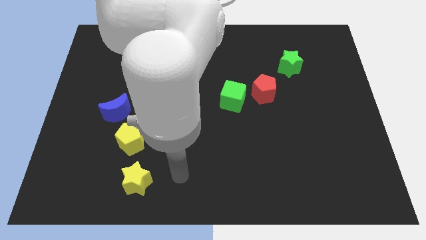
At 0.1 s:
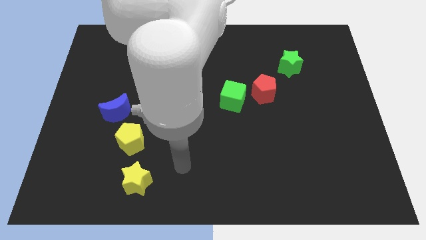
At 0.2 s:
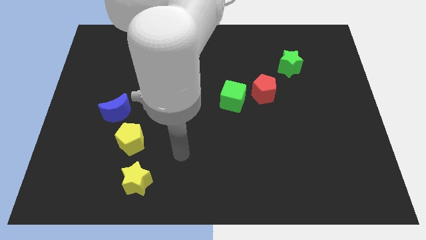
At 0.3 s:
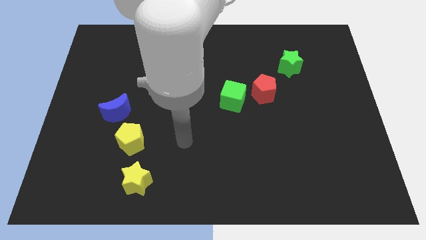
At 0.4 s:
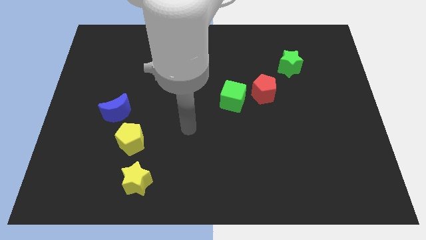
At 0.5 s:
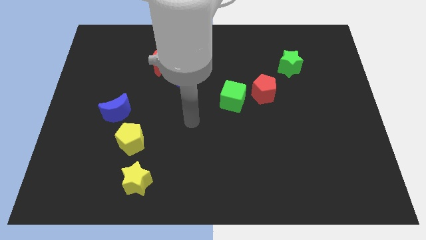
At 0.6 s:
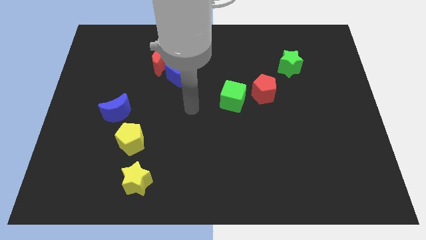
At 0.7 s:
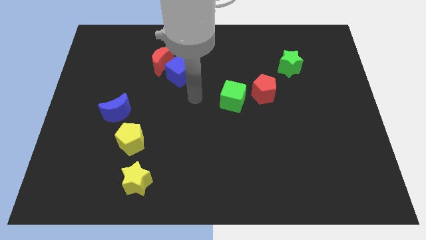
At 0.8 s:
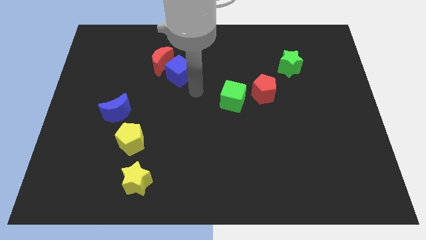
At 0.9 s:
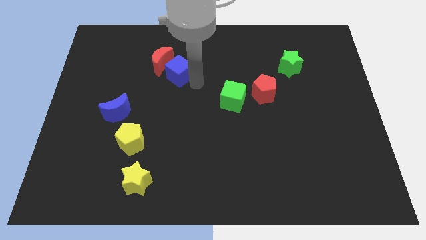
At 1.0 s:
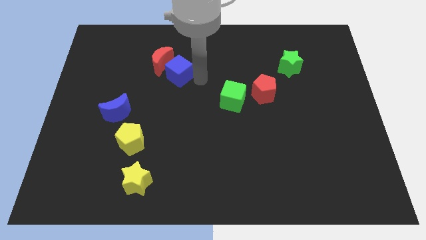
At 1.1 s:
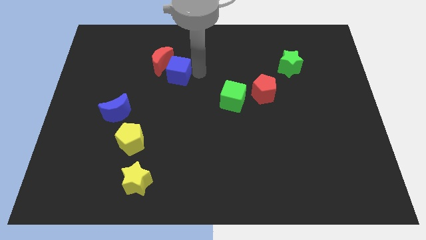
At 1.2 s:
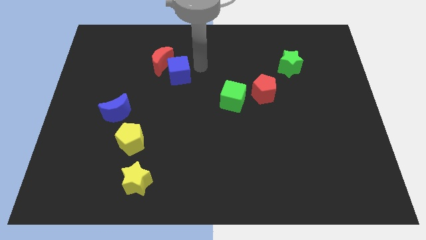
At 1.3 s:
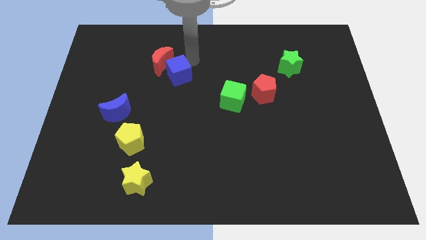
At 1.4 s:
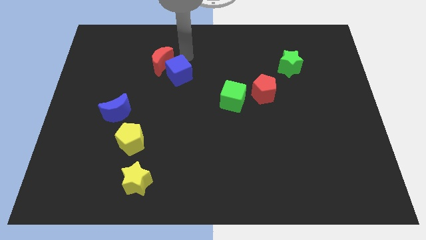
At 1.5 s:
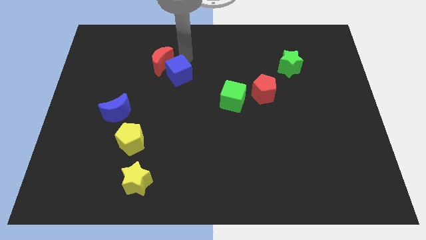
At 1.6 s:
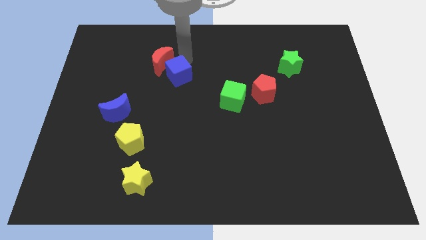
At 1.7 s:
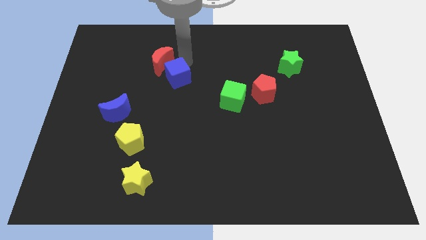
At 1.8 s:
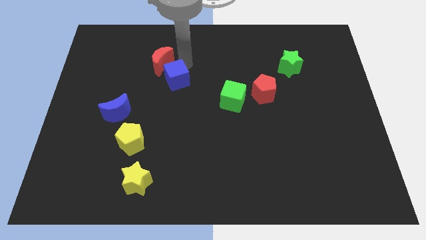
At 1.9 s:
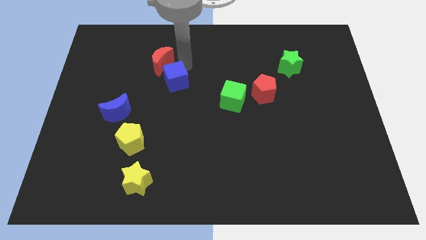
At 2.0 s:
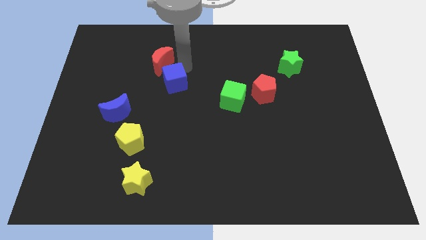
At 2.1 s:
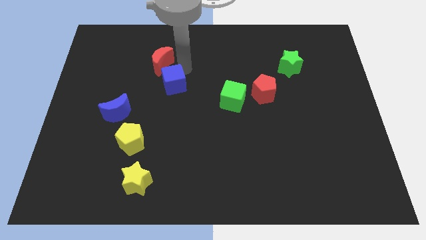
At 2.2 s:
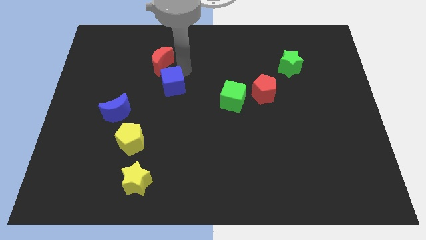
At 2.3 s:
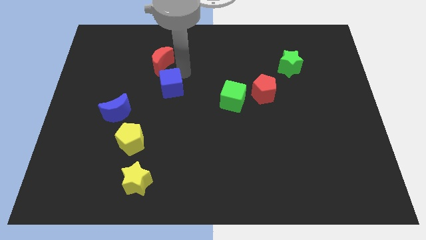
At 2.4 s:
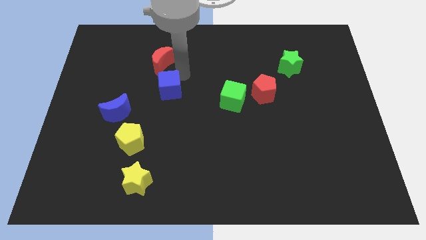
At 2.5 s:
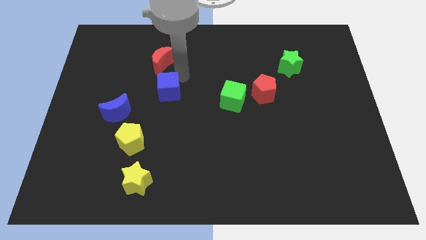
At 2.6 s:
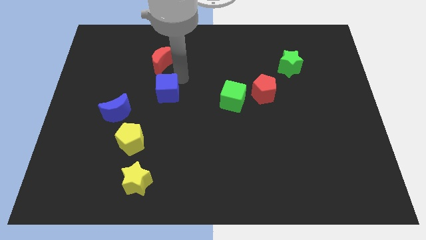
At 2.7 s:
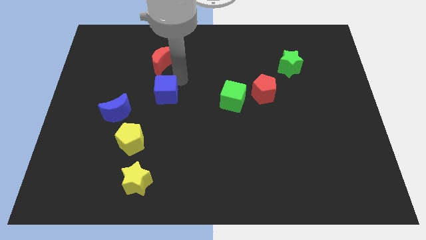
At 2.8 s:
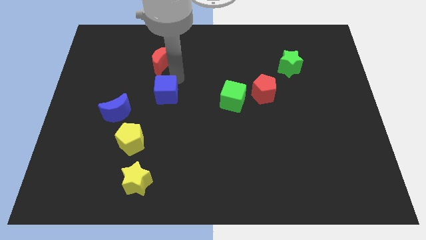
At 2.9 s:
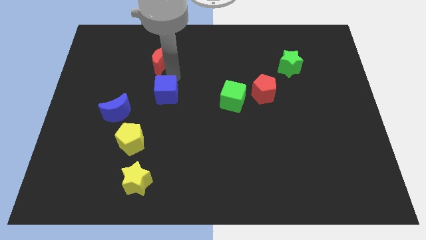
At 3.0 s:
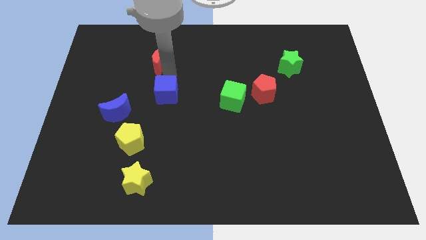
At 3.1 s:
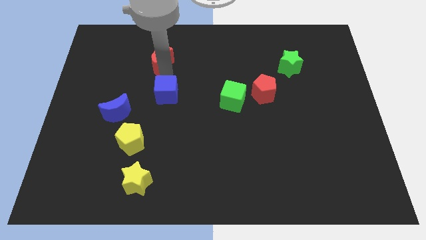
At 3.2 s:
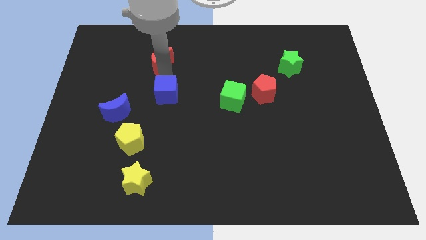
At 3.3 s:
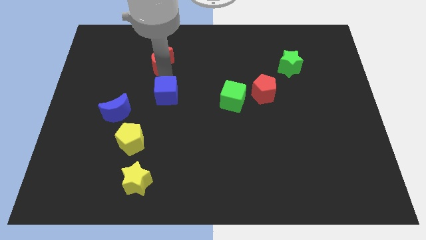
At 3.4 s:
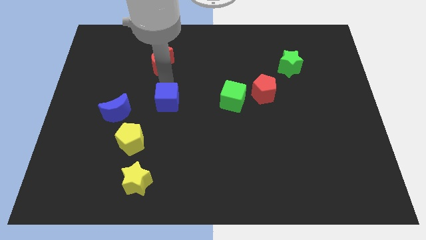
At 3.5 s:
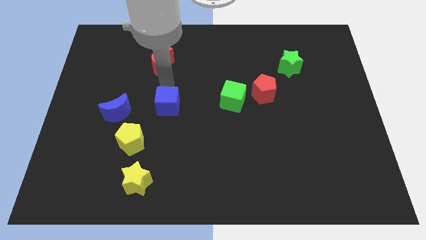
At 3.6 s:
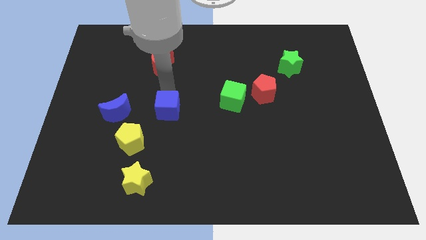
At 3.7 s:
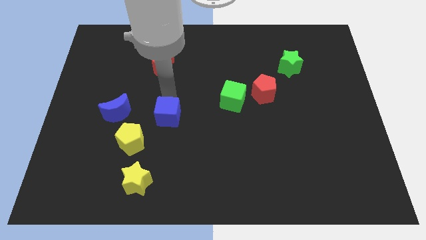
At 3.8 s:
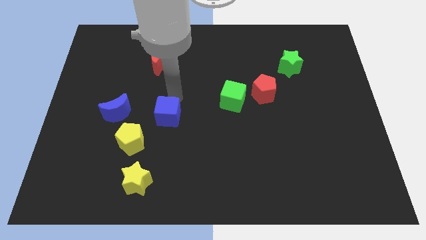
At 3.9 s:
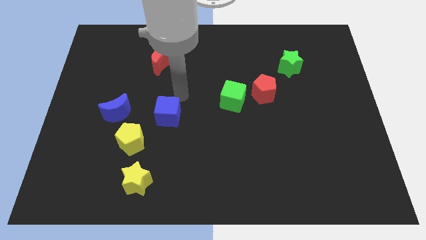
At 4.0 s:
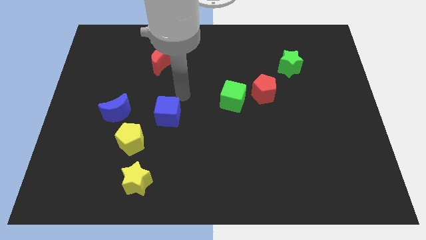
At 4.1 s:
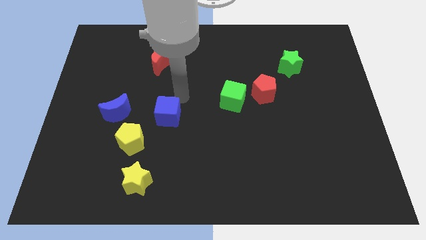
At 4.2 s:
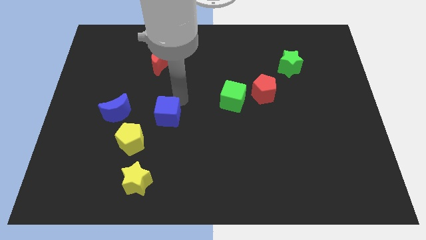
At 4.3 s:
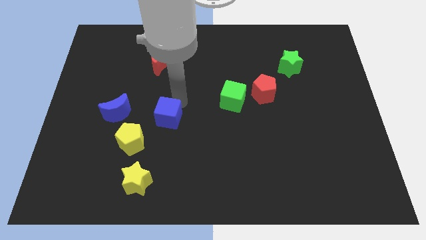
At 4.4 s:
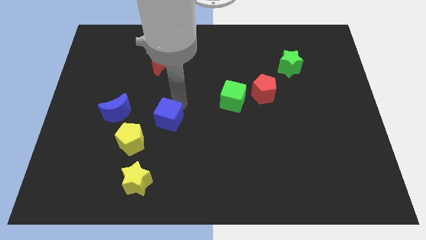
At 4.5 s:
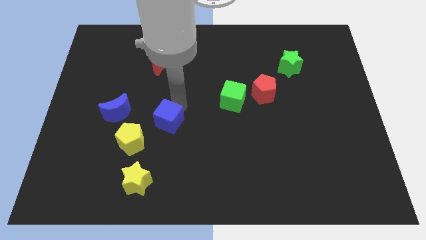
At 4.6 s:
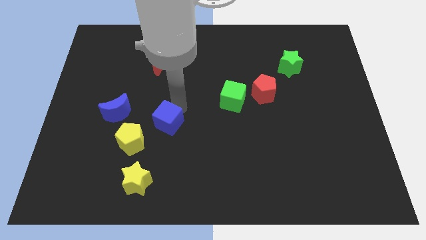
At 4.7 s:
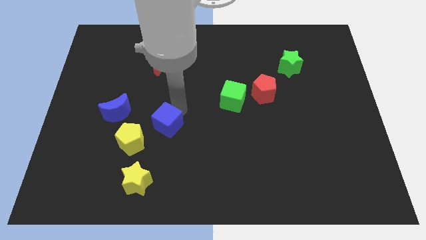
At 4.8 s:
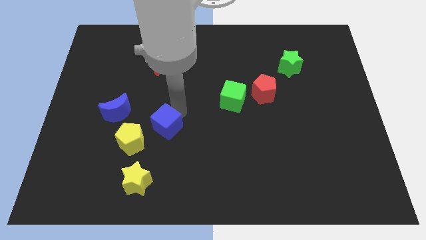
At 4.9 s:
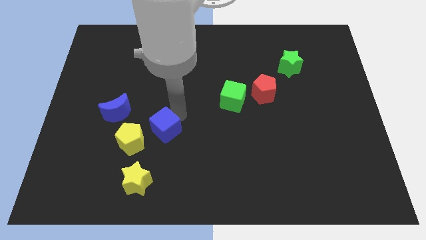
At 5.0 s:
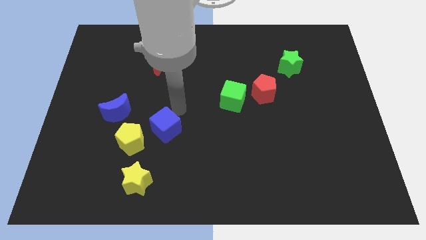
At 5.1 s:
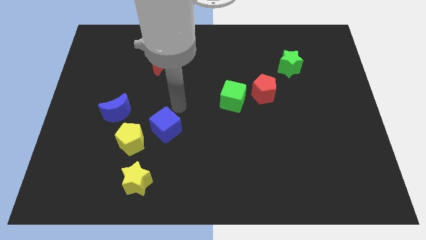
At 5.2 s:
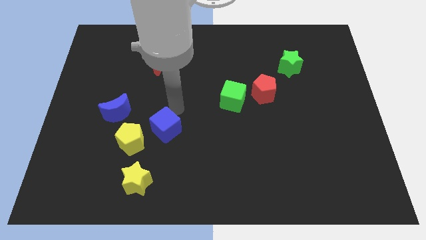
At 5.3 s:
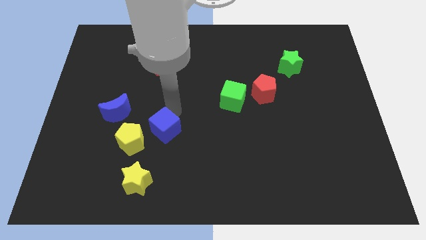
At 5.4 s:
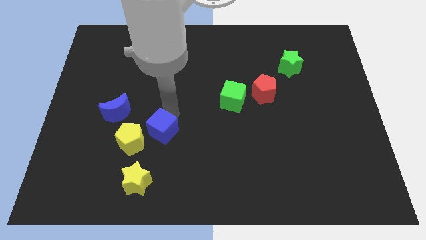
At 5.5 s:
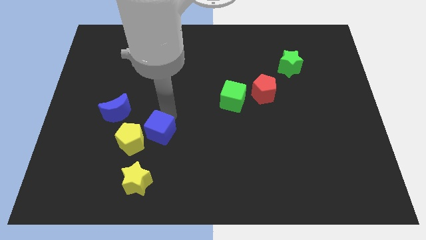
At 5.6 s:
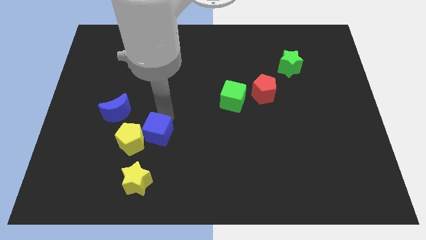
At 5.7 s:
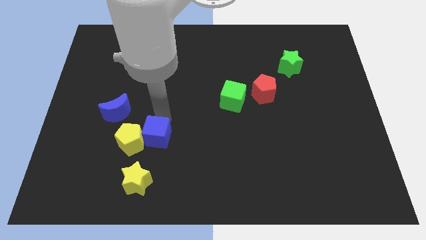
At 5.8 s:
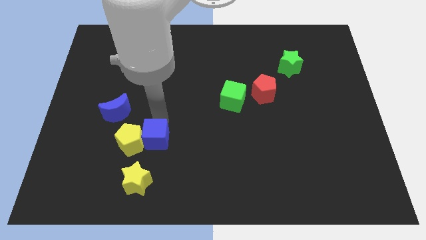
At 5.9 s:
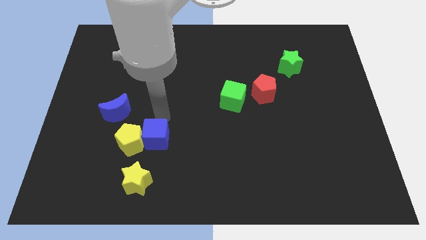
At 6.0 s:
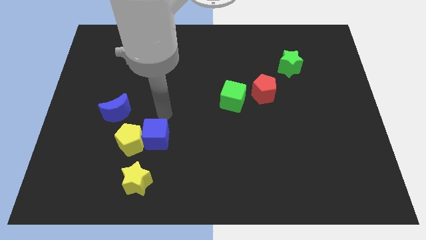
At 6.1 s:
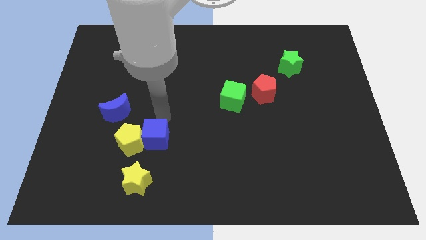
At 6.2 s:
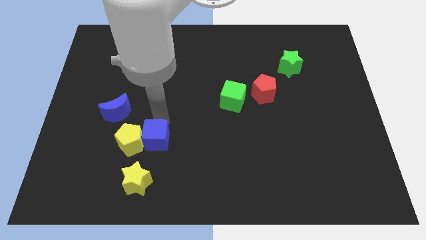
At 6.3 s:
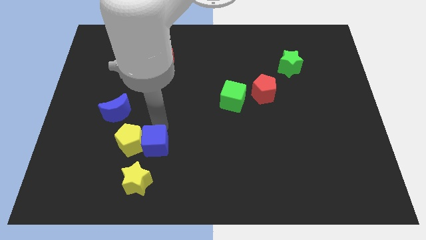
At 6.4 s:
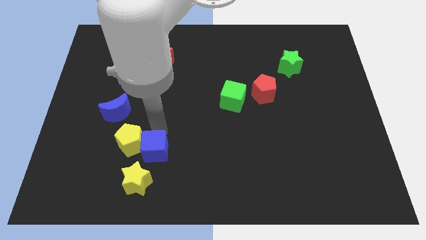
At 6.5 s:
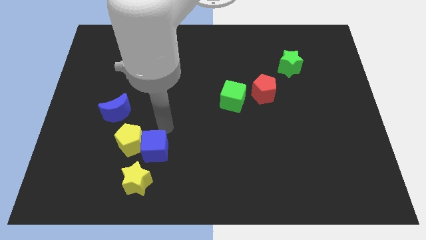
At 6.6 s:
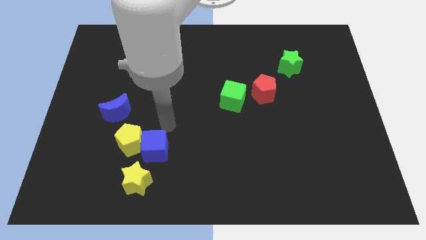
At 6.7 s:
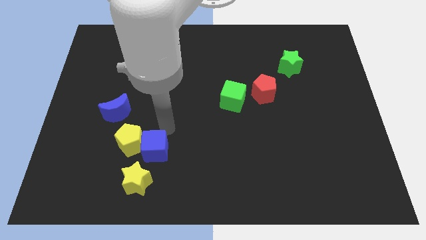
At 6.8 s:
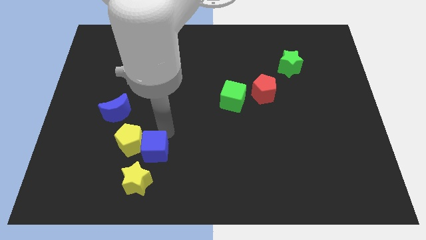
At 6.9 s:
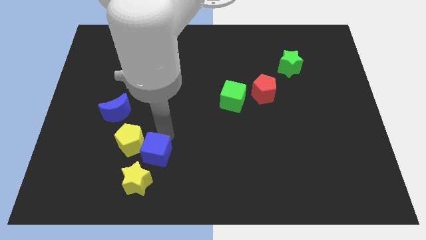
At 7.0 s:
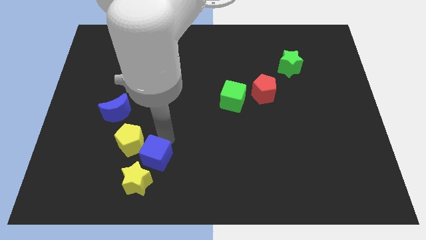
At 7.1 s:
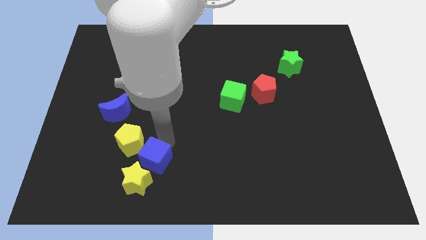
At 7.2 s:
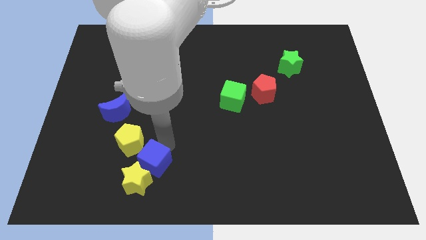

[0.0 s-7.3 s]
push the blue cube next to the yellow star

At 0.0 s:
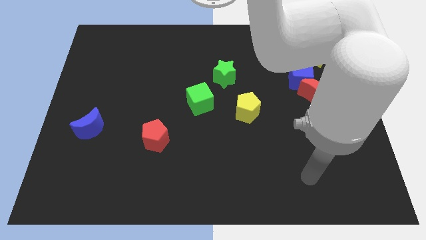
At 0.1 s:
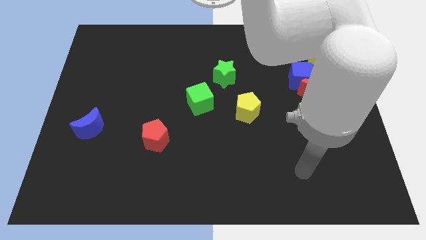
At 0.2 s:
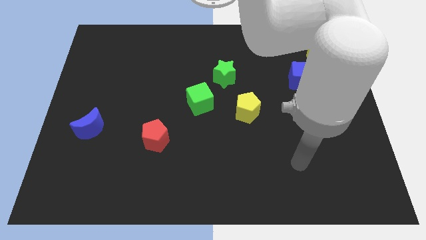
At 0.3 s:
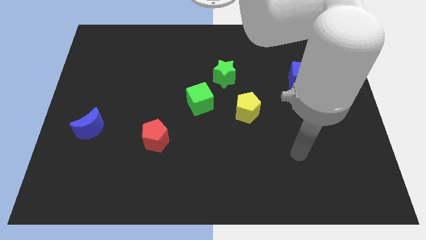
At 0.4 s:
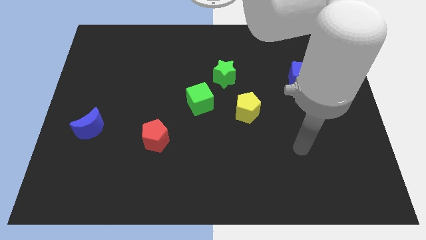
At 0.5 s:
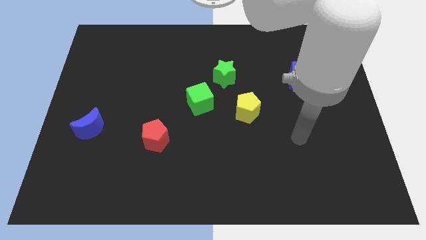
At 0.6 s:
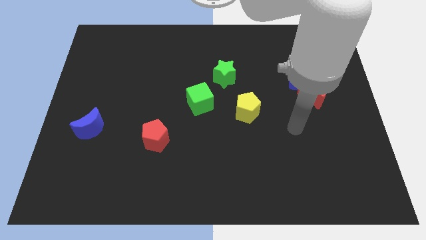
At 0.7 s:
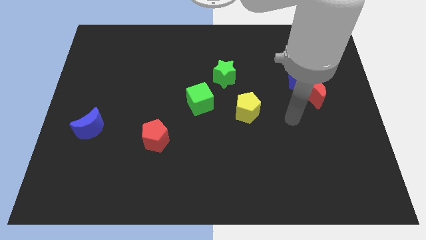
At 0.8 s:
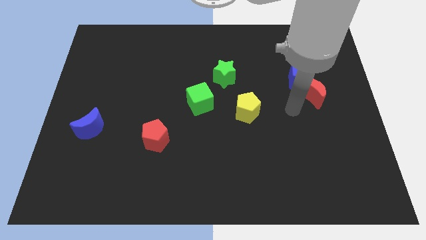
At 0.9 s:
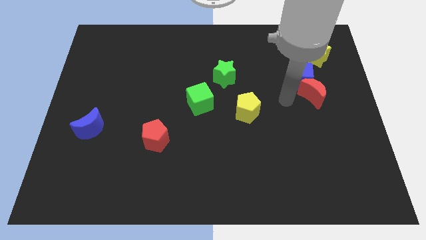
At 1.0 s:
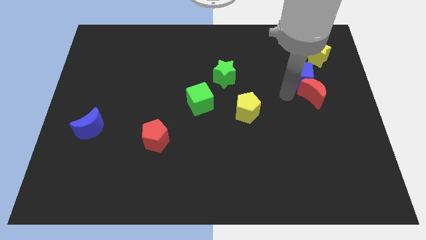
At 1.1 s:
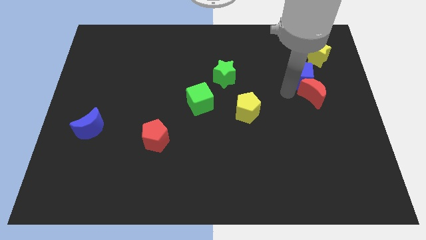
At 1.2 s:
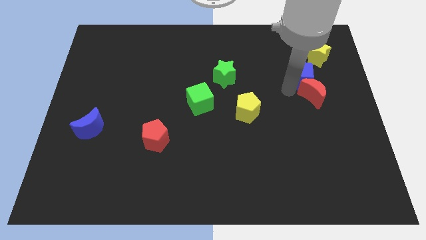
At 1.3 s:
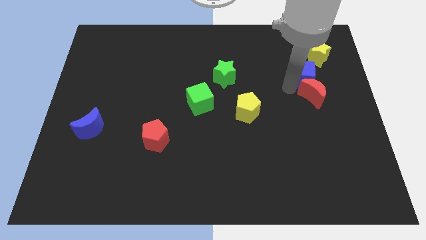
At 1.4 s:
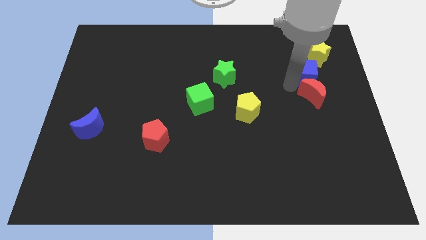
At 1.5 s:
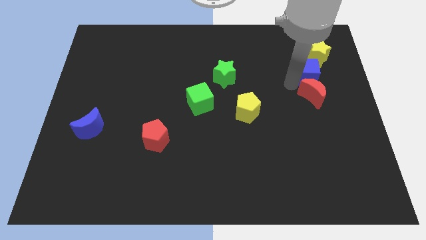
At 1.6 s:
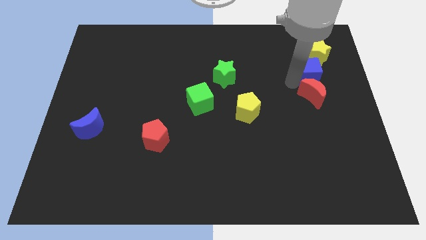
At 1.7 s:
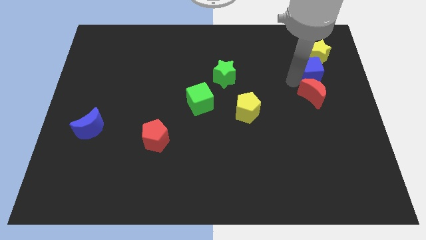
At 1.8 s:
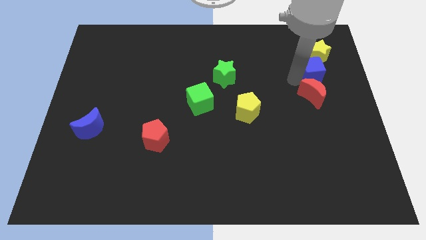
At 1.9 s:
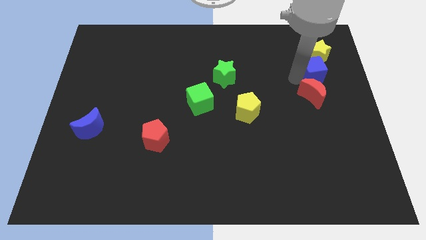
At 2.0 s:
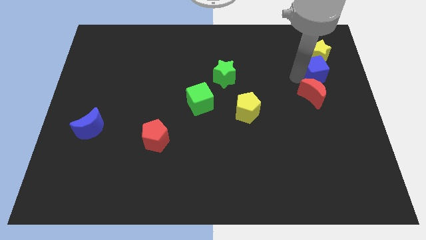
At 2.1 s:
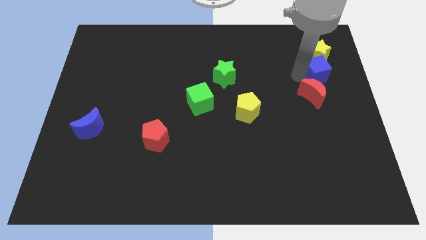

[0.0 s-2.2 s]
put the blue cube close to the yellow star
